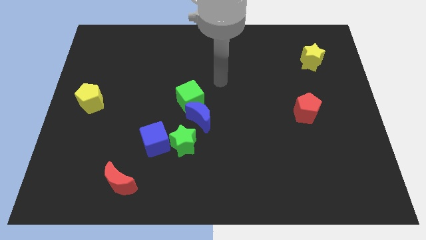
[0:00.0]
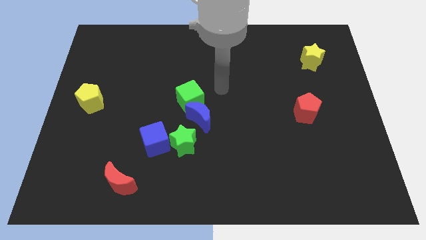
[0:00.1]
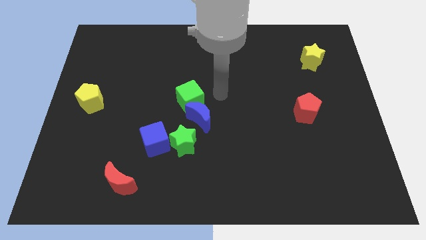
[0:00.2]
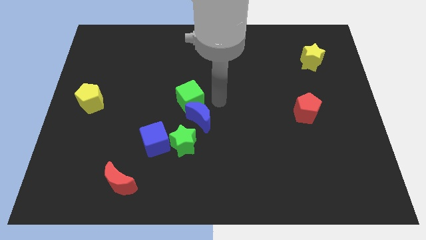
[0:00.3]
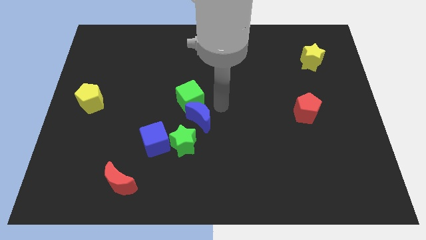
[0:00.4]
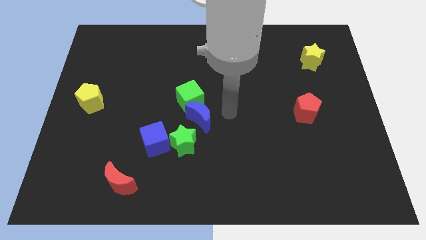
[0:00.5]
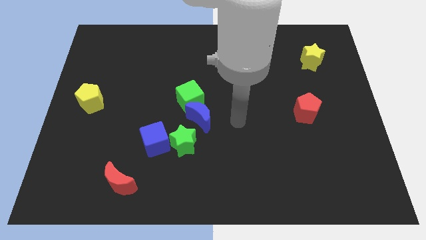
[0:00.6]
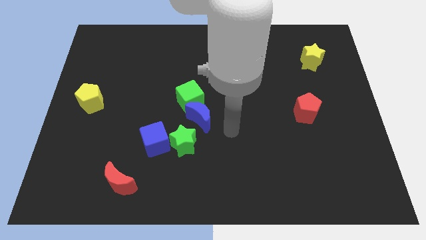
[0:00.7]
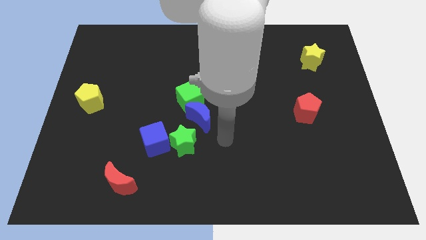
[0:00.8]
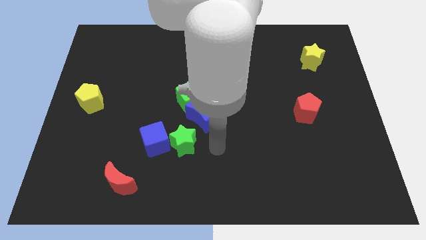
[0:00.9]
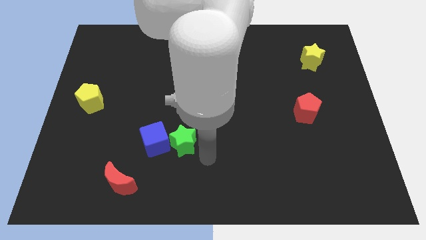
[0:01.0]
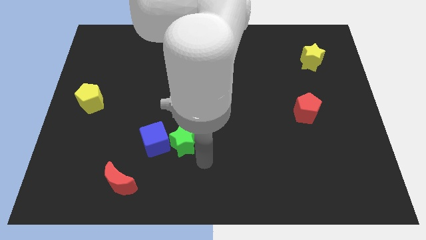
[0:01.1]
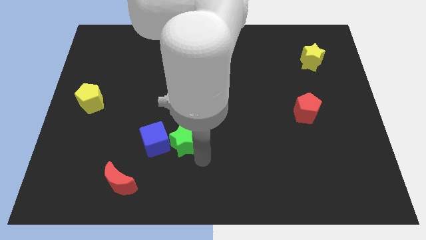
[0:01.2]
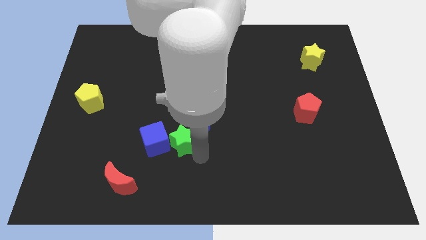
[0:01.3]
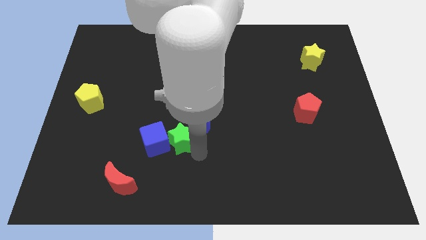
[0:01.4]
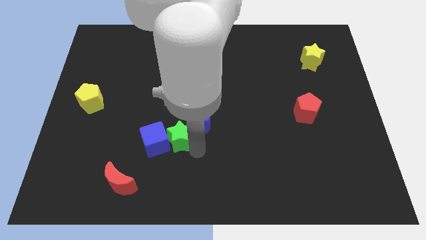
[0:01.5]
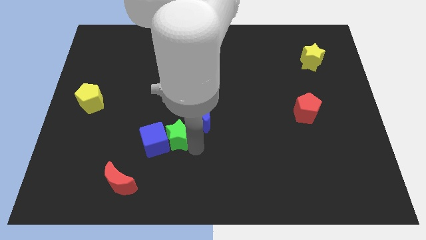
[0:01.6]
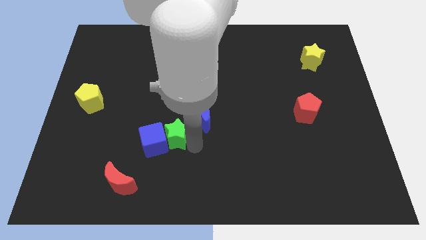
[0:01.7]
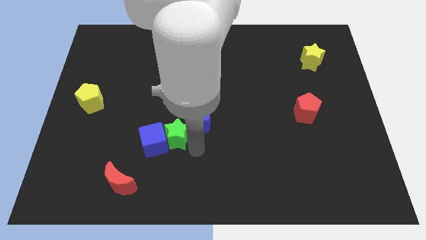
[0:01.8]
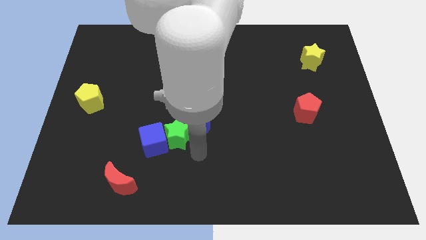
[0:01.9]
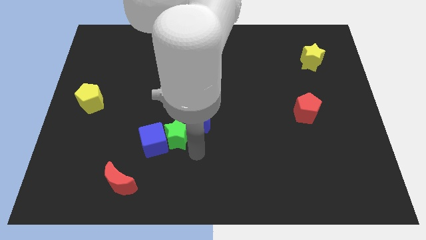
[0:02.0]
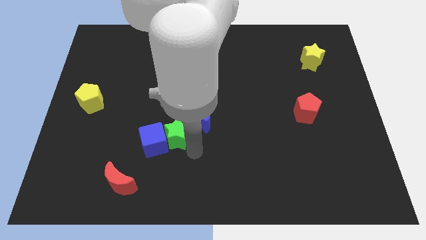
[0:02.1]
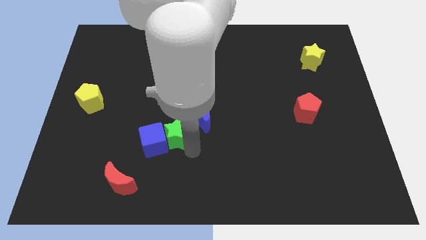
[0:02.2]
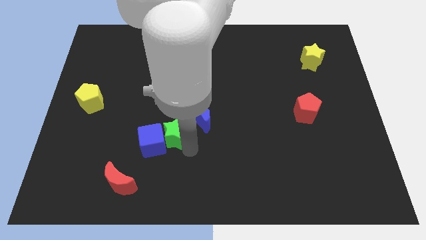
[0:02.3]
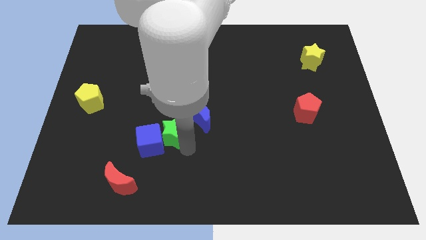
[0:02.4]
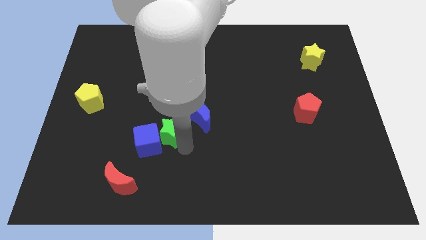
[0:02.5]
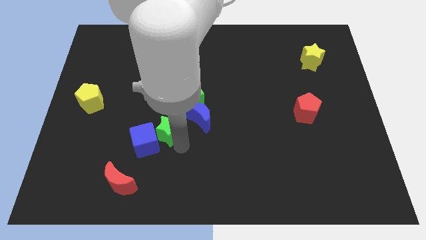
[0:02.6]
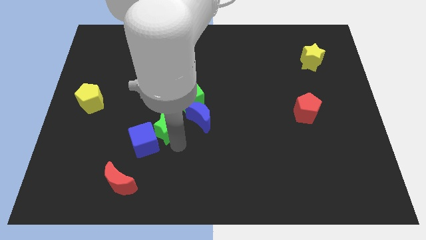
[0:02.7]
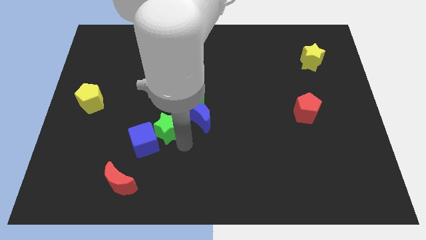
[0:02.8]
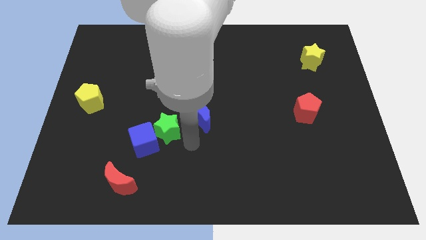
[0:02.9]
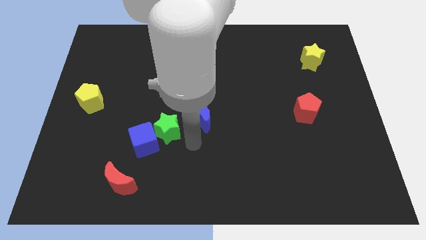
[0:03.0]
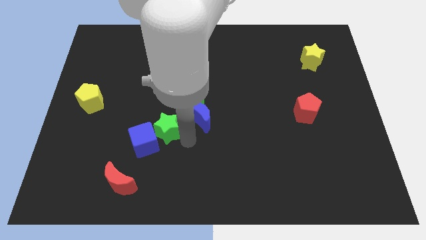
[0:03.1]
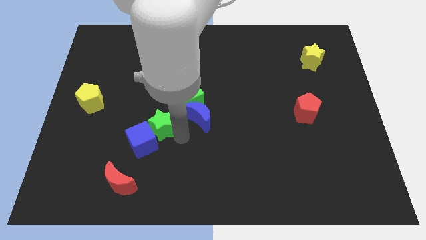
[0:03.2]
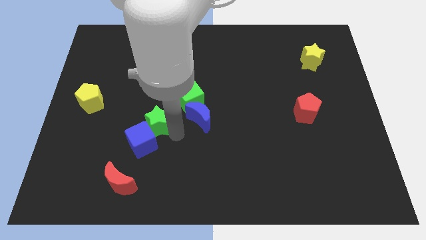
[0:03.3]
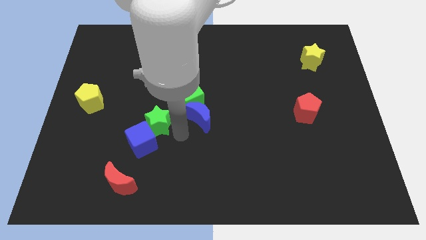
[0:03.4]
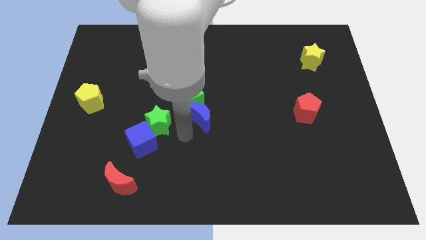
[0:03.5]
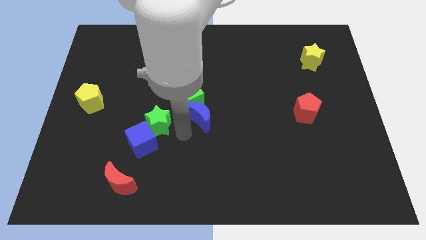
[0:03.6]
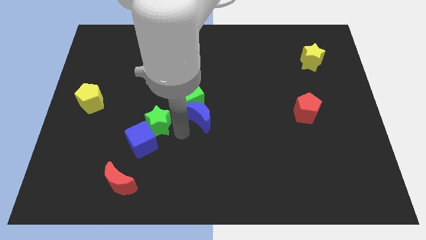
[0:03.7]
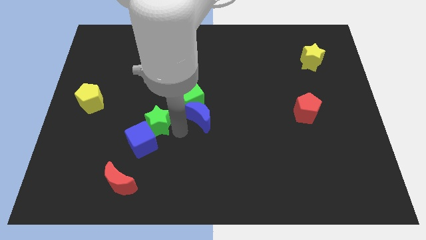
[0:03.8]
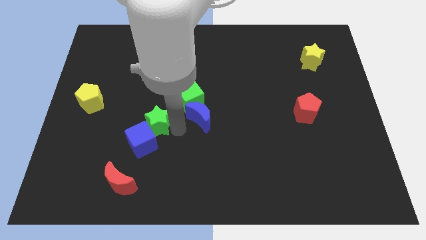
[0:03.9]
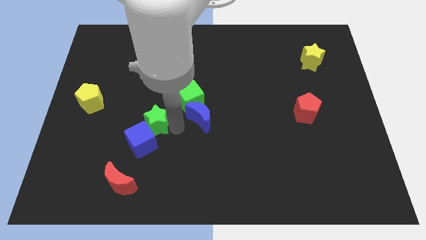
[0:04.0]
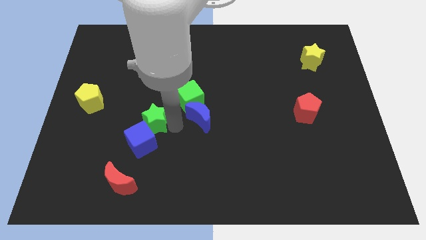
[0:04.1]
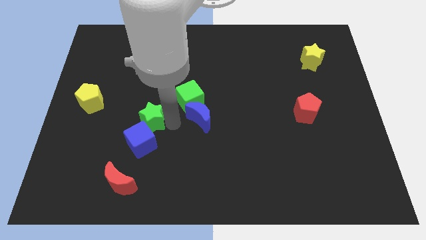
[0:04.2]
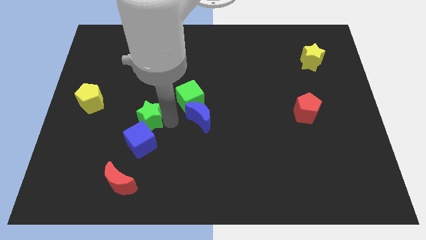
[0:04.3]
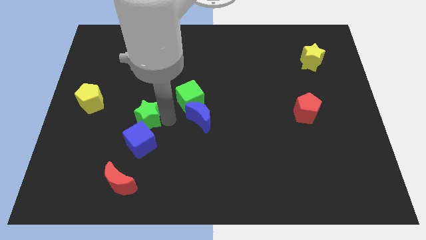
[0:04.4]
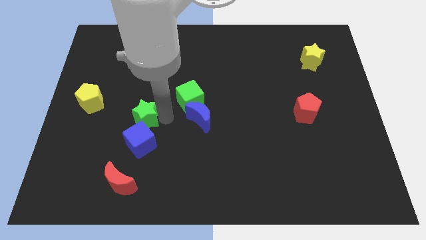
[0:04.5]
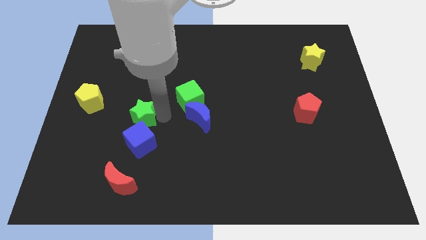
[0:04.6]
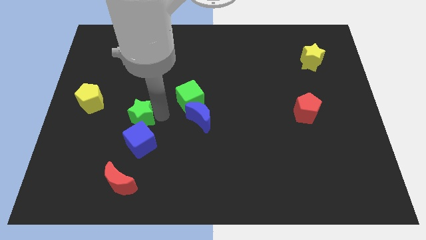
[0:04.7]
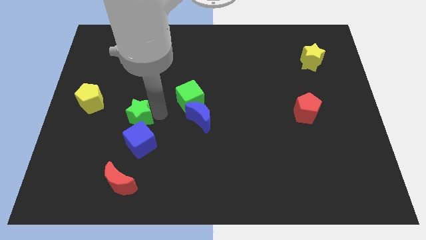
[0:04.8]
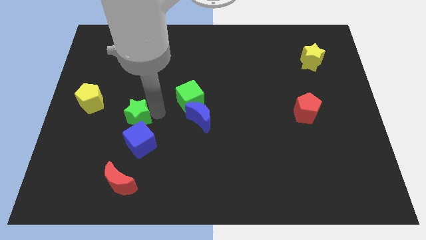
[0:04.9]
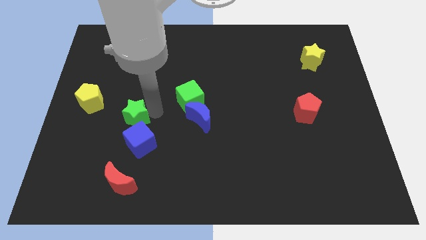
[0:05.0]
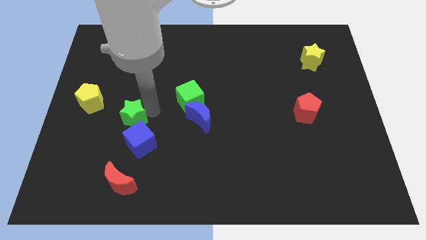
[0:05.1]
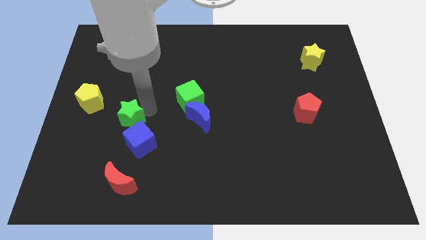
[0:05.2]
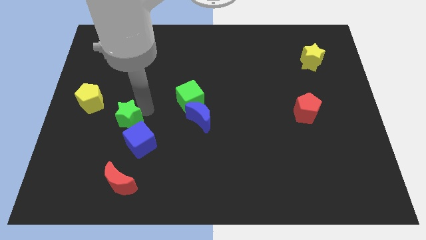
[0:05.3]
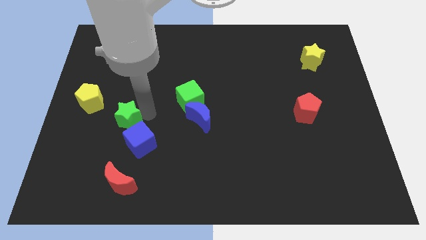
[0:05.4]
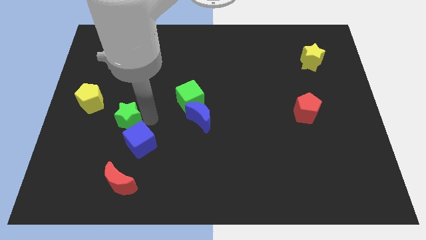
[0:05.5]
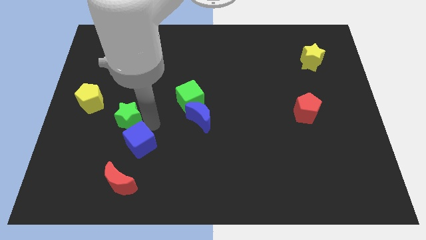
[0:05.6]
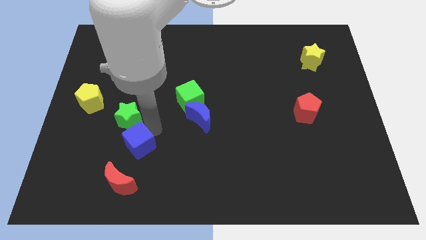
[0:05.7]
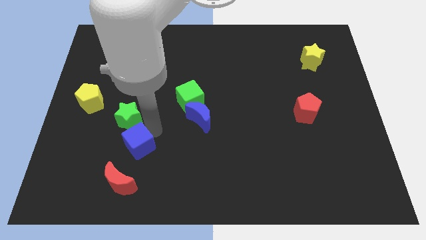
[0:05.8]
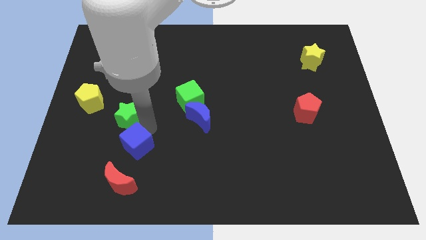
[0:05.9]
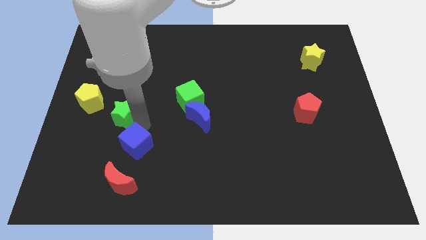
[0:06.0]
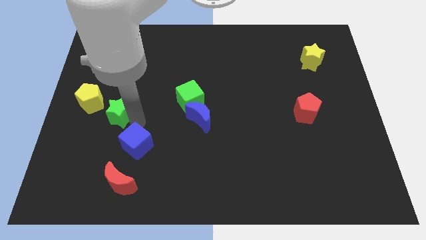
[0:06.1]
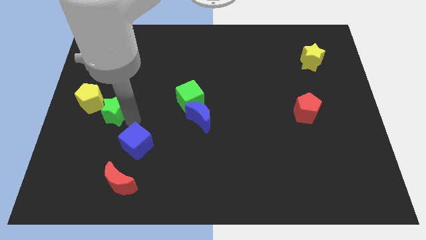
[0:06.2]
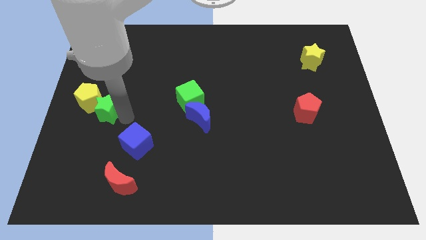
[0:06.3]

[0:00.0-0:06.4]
move the green star next to the yellow pentagon
